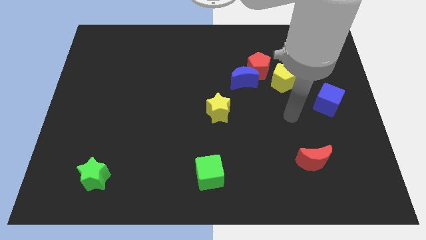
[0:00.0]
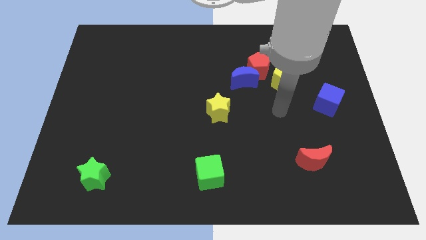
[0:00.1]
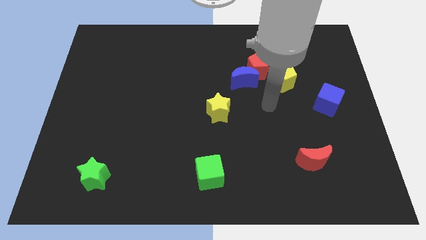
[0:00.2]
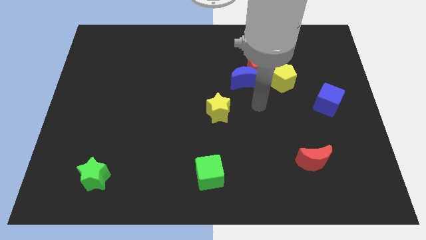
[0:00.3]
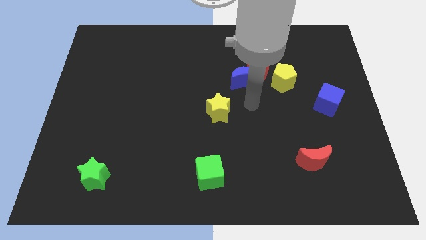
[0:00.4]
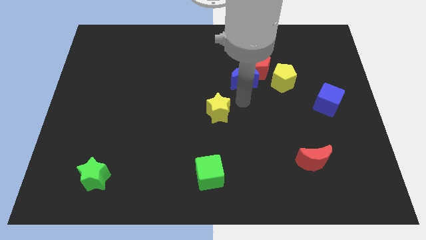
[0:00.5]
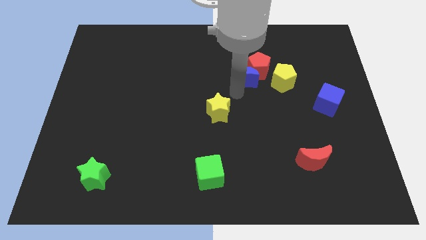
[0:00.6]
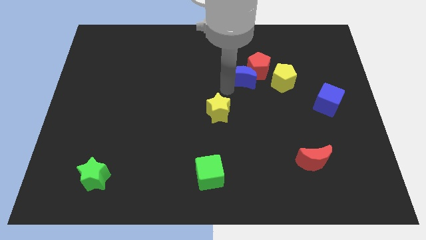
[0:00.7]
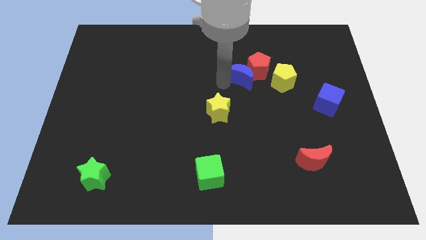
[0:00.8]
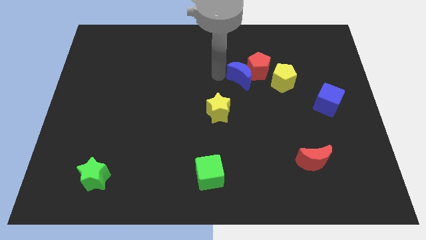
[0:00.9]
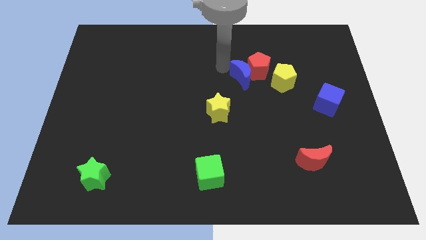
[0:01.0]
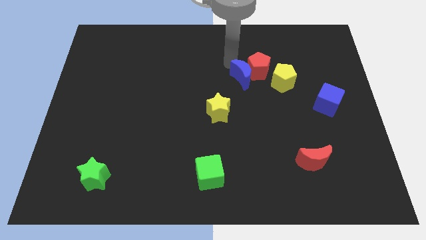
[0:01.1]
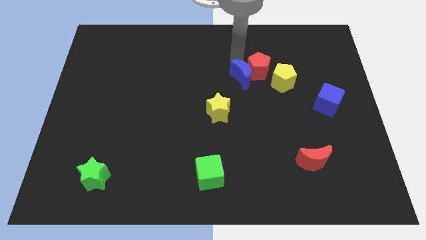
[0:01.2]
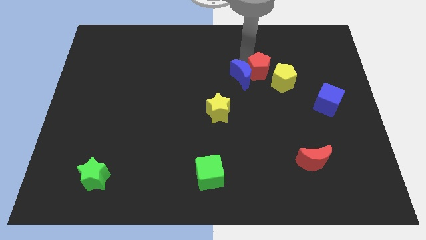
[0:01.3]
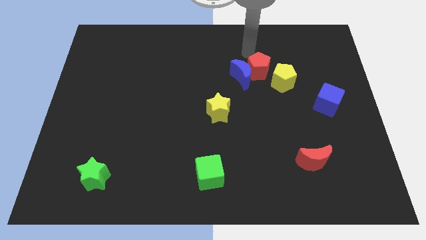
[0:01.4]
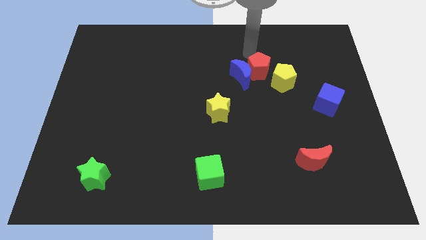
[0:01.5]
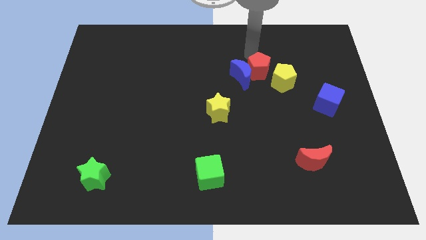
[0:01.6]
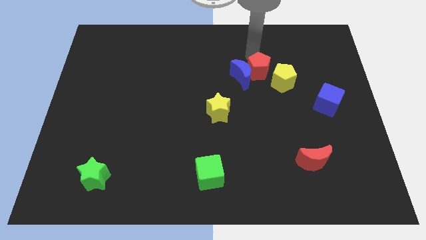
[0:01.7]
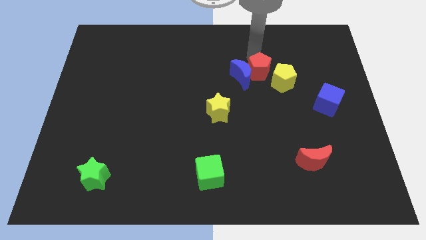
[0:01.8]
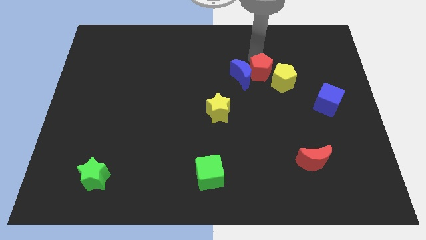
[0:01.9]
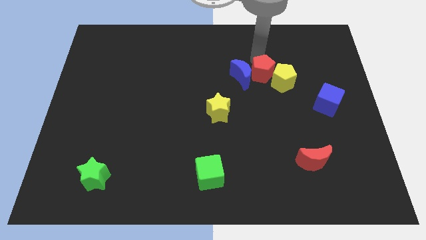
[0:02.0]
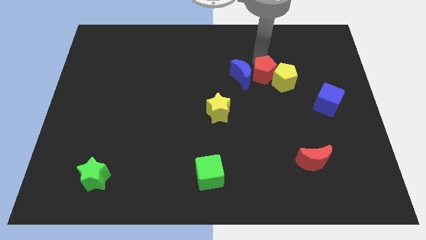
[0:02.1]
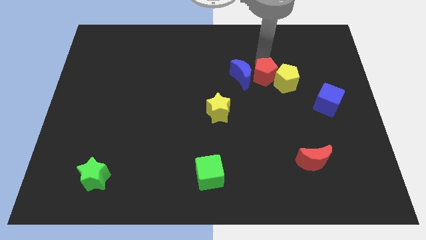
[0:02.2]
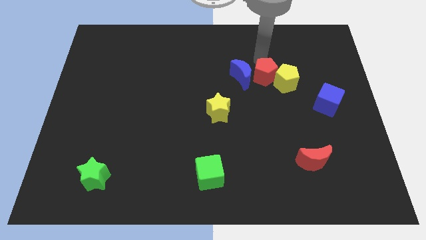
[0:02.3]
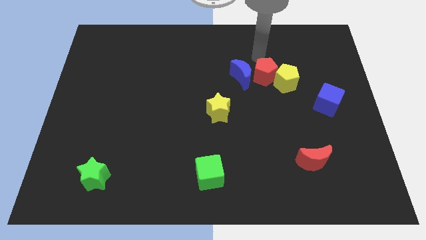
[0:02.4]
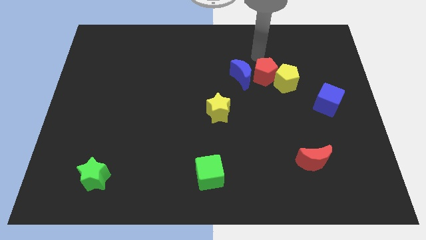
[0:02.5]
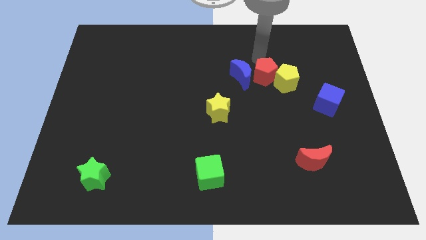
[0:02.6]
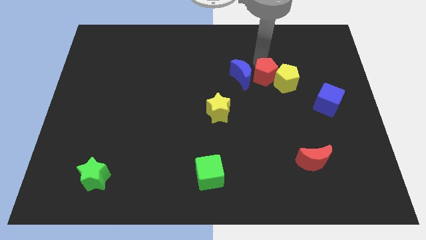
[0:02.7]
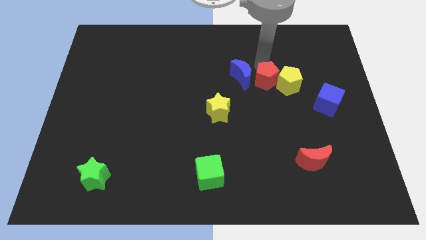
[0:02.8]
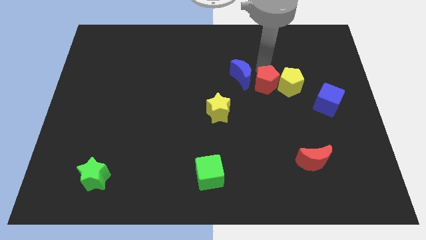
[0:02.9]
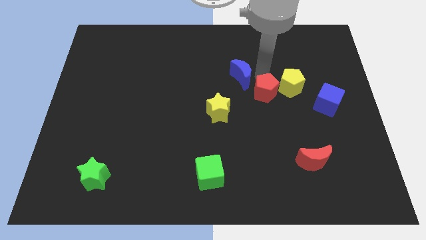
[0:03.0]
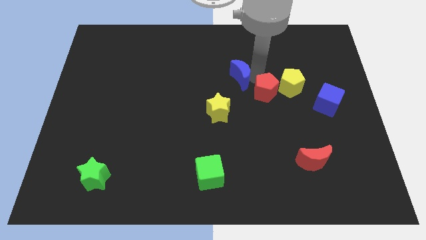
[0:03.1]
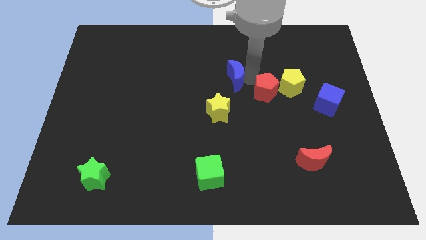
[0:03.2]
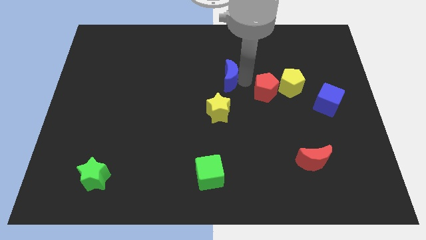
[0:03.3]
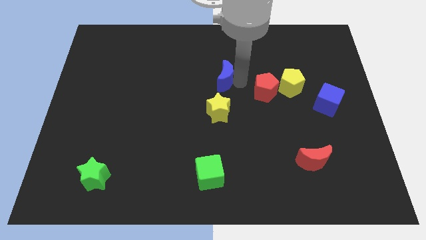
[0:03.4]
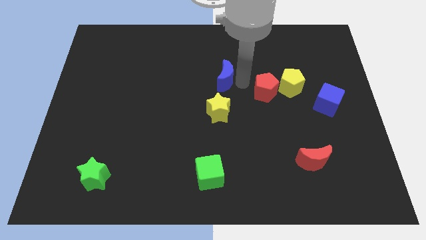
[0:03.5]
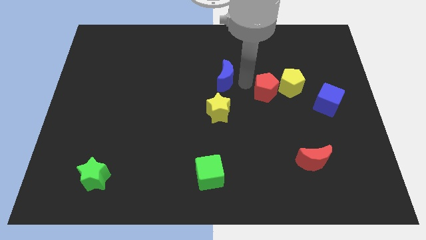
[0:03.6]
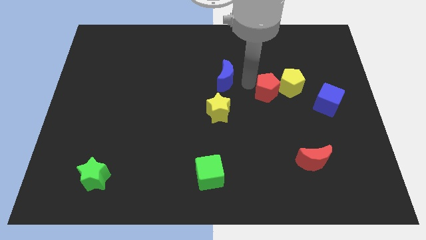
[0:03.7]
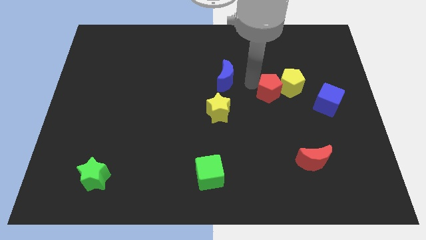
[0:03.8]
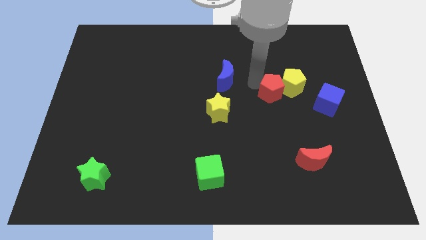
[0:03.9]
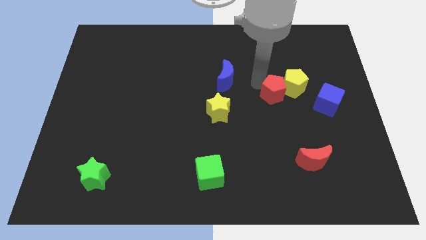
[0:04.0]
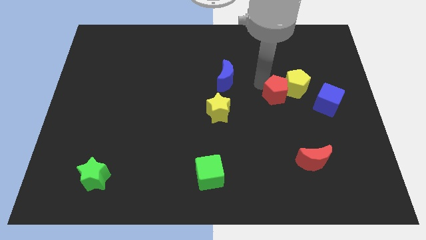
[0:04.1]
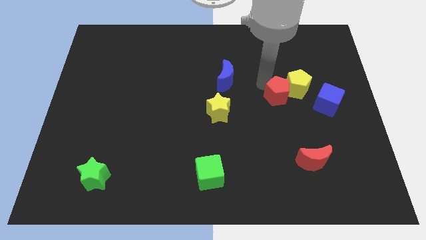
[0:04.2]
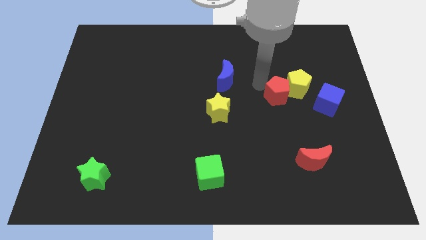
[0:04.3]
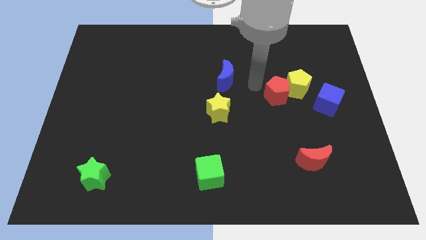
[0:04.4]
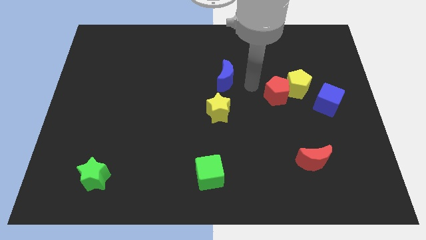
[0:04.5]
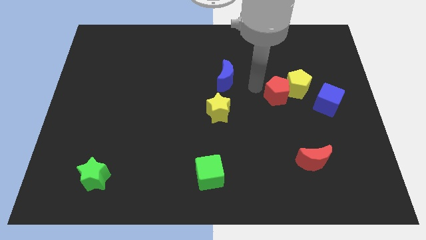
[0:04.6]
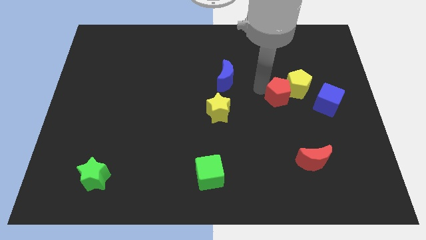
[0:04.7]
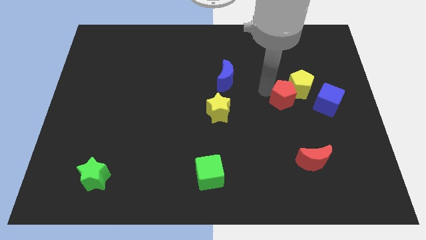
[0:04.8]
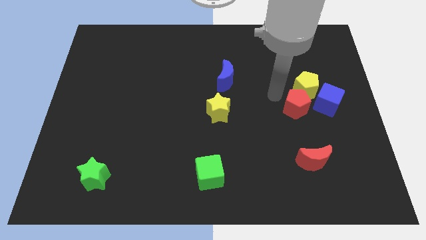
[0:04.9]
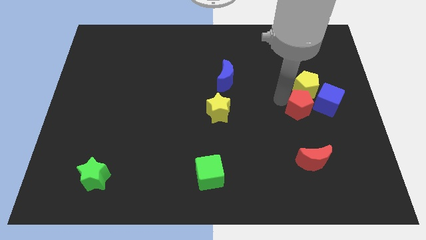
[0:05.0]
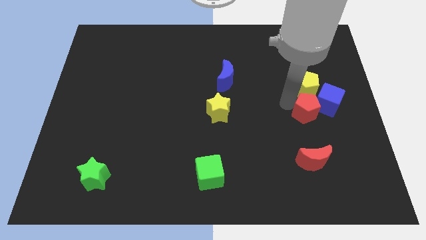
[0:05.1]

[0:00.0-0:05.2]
slide the red pentagon to the blue cube

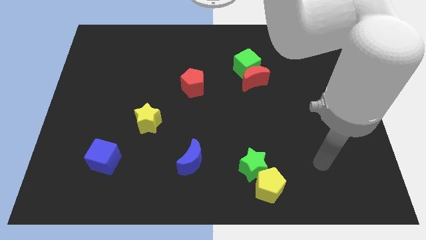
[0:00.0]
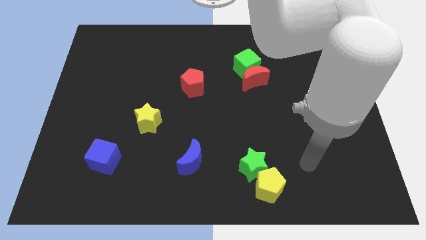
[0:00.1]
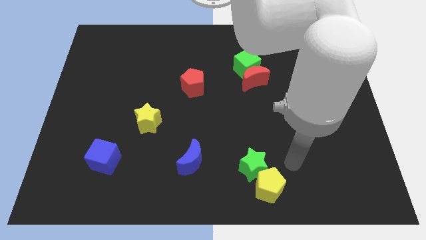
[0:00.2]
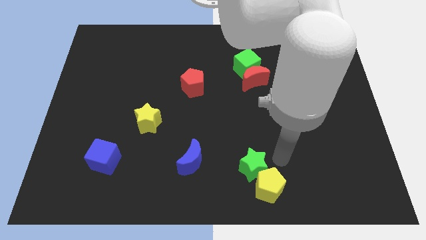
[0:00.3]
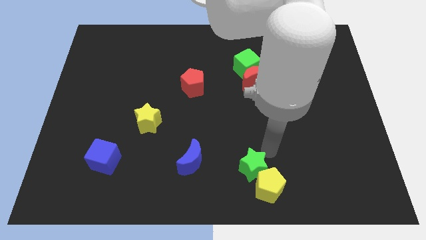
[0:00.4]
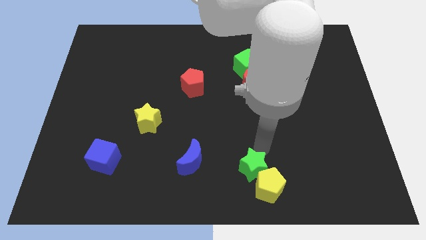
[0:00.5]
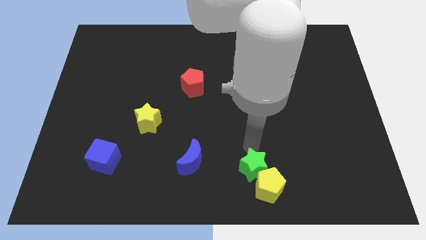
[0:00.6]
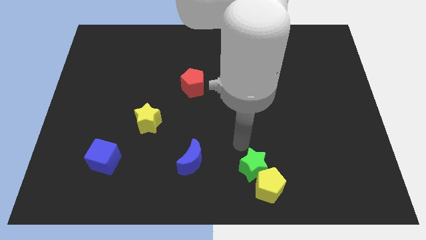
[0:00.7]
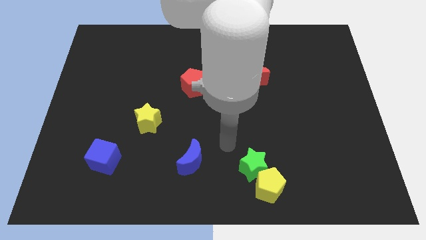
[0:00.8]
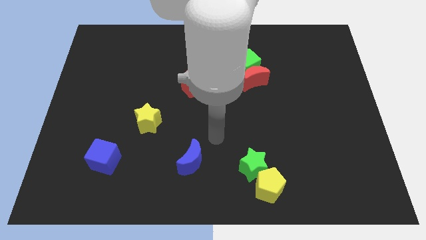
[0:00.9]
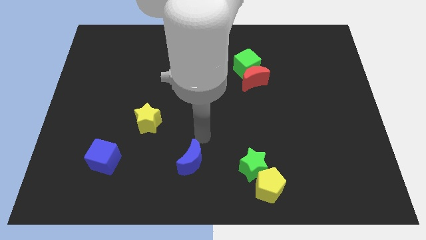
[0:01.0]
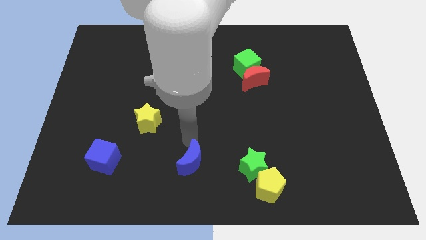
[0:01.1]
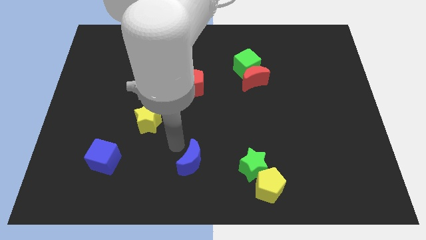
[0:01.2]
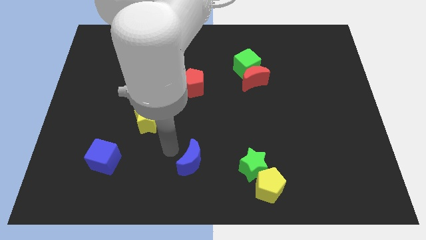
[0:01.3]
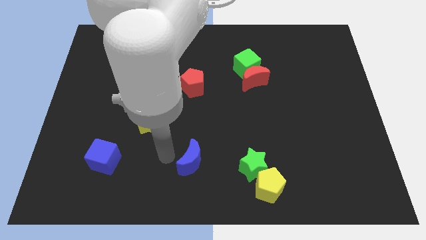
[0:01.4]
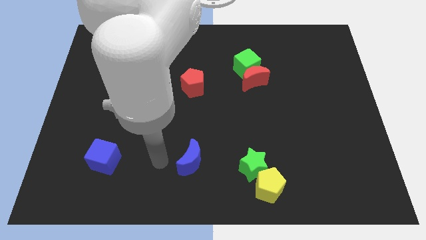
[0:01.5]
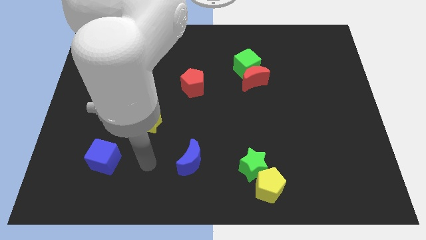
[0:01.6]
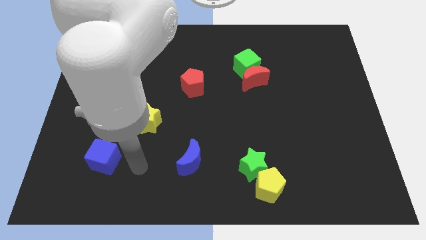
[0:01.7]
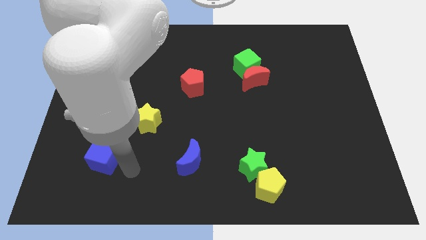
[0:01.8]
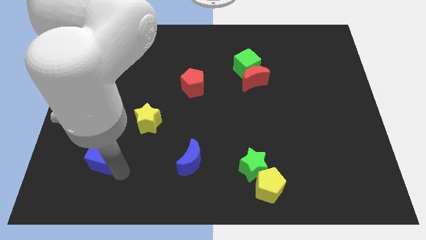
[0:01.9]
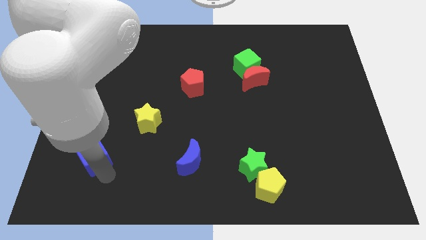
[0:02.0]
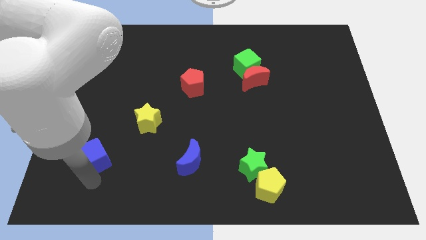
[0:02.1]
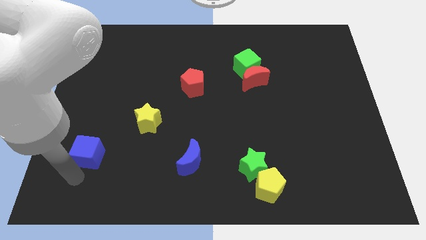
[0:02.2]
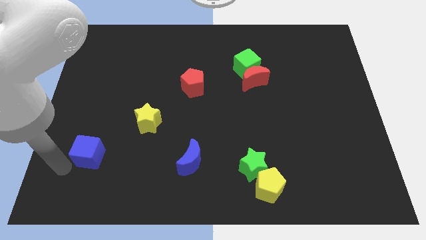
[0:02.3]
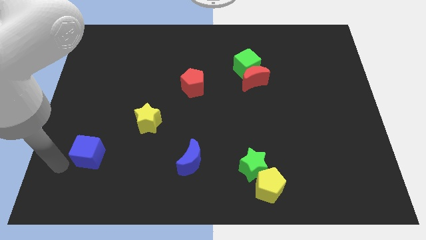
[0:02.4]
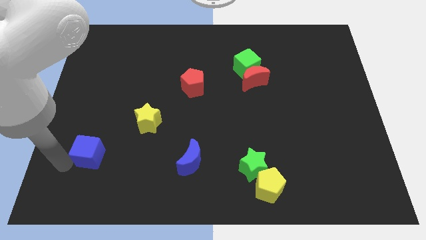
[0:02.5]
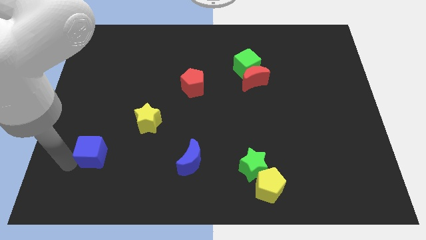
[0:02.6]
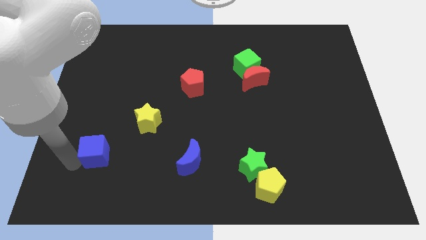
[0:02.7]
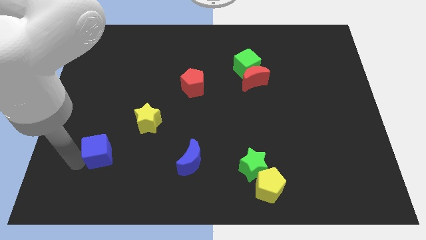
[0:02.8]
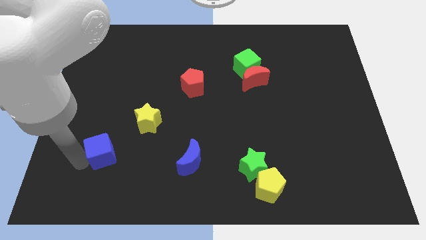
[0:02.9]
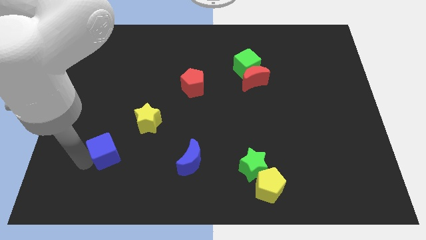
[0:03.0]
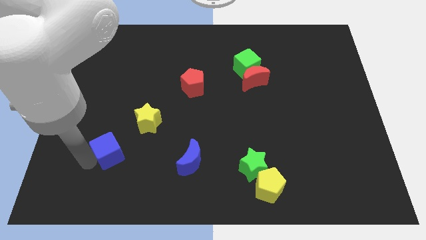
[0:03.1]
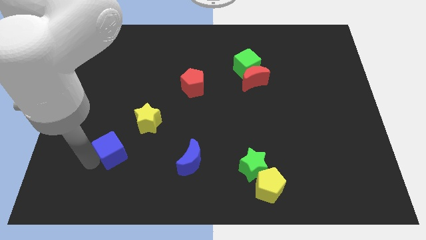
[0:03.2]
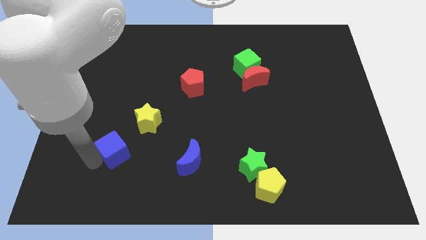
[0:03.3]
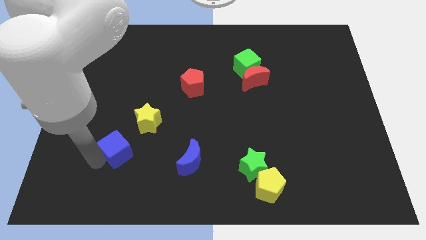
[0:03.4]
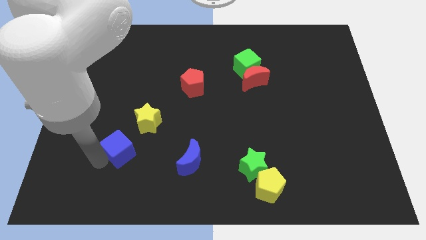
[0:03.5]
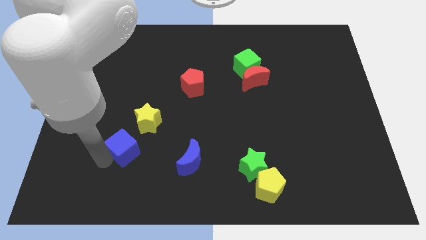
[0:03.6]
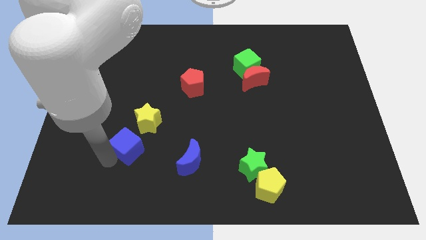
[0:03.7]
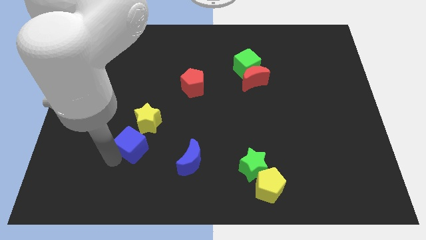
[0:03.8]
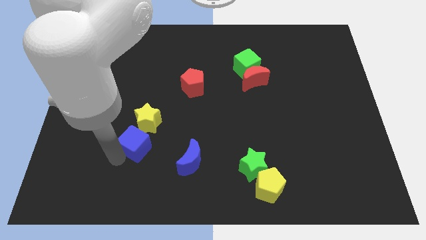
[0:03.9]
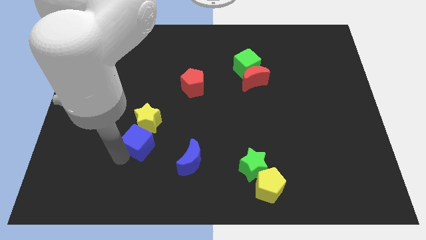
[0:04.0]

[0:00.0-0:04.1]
slide the blue cube next to the yellow star
